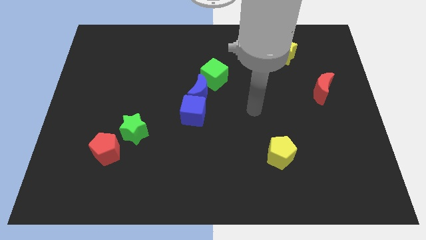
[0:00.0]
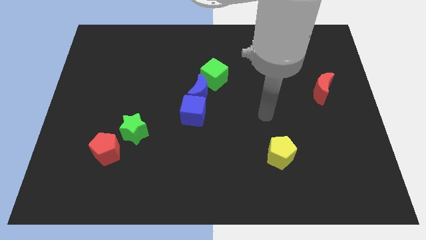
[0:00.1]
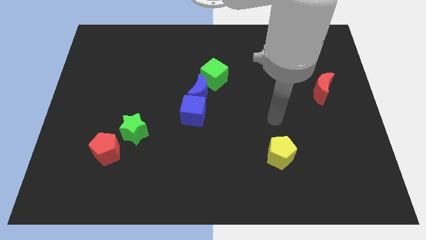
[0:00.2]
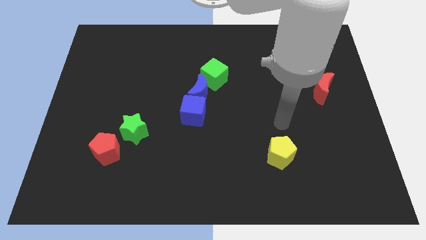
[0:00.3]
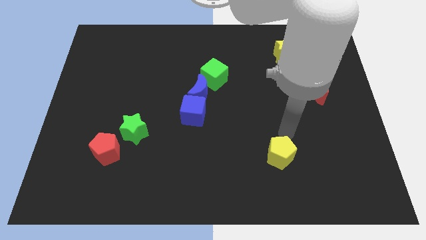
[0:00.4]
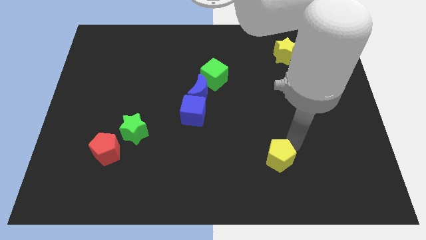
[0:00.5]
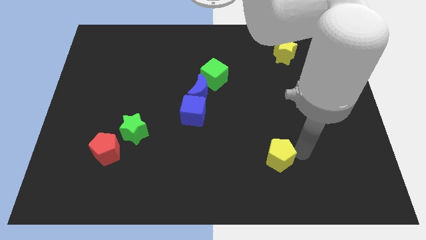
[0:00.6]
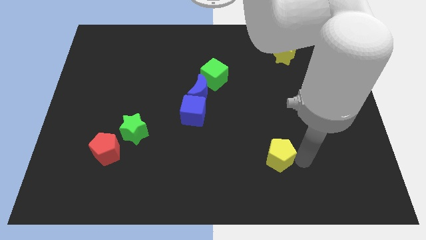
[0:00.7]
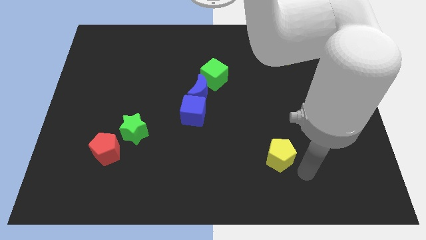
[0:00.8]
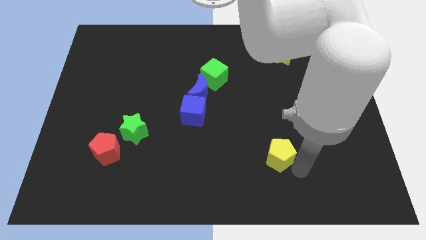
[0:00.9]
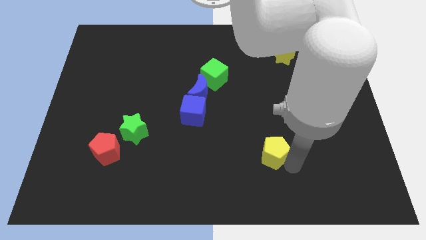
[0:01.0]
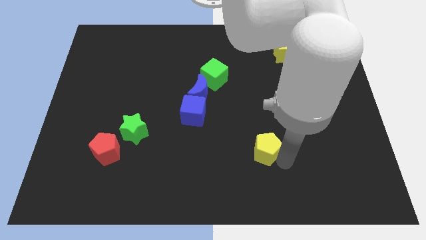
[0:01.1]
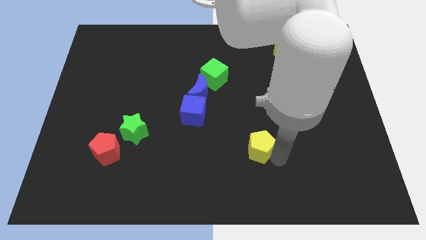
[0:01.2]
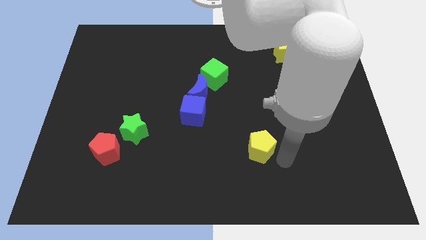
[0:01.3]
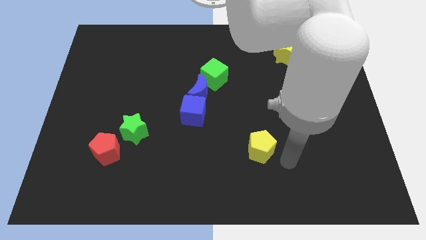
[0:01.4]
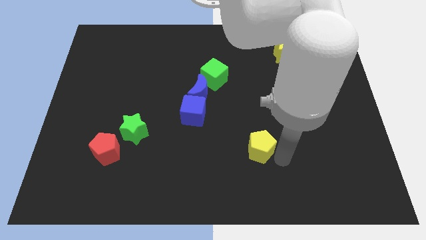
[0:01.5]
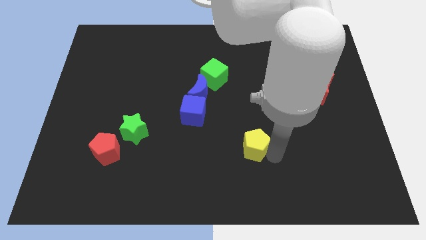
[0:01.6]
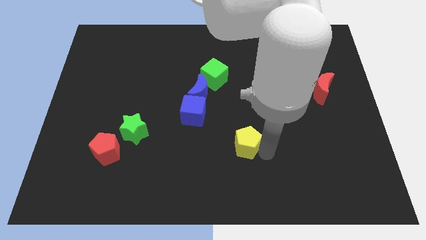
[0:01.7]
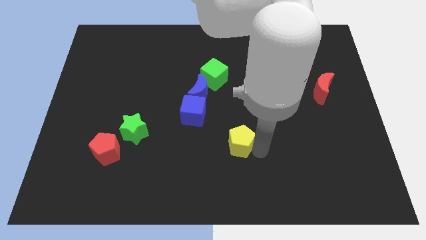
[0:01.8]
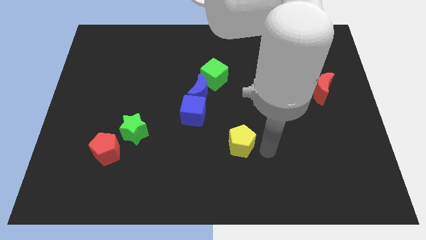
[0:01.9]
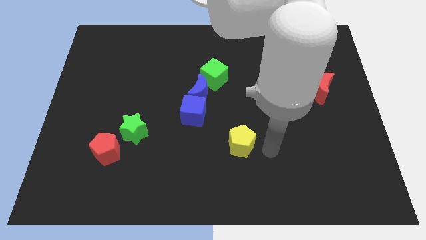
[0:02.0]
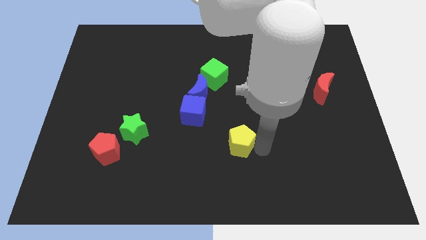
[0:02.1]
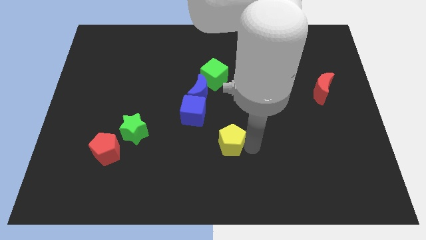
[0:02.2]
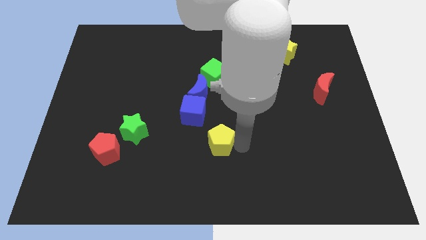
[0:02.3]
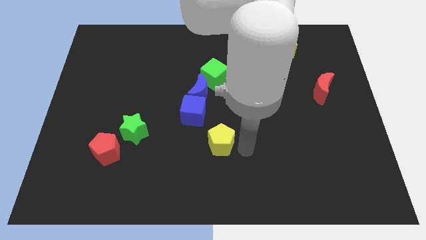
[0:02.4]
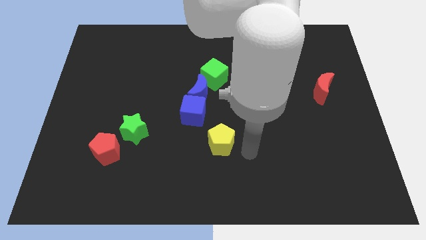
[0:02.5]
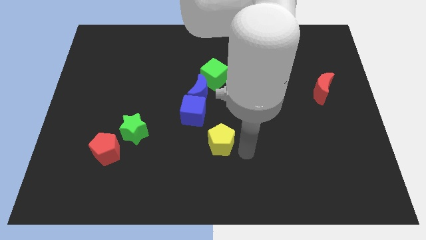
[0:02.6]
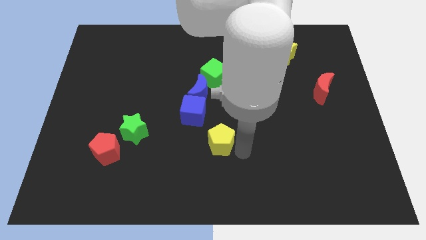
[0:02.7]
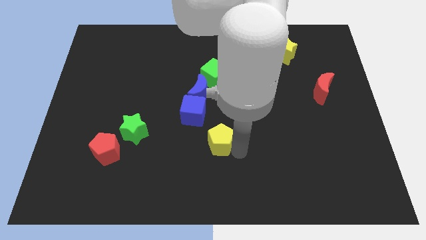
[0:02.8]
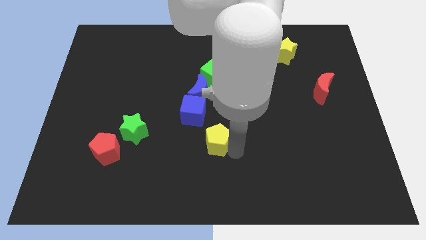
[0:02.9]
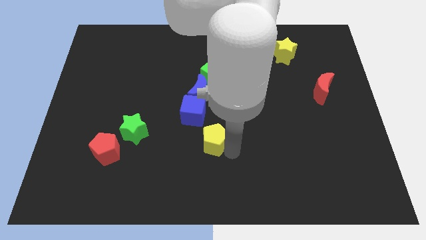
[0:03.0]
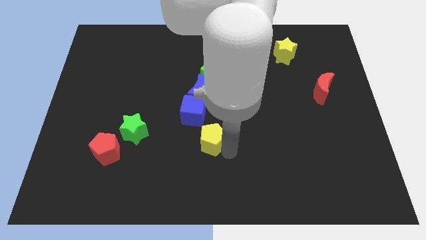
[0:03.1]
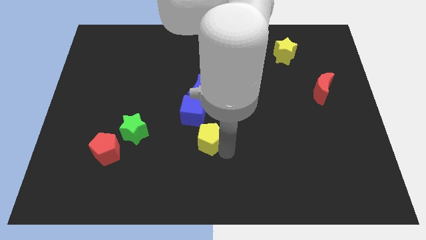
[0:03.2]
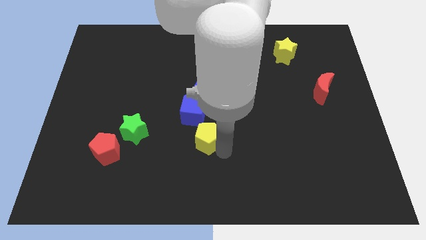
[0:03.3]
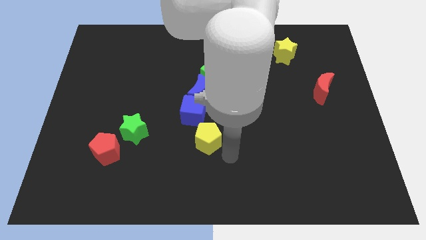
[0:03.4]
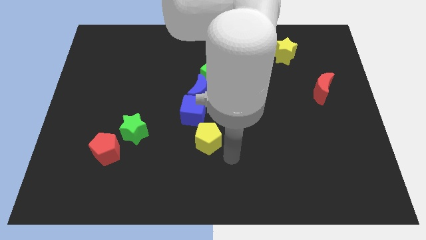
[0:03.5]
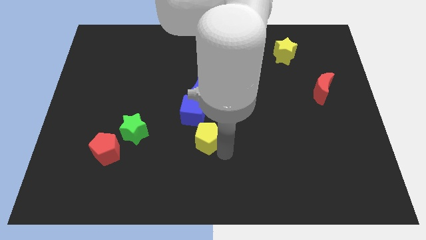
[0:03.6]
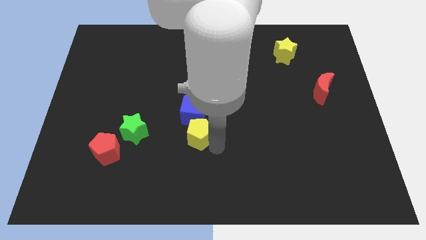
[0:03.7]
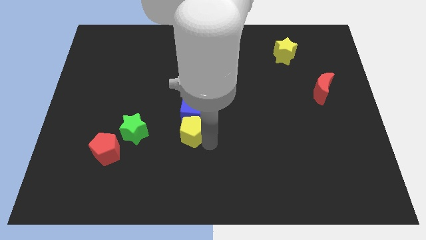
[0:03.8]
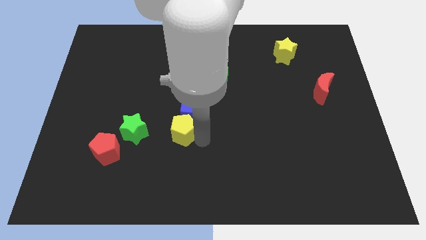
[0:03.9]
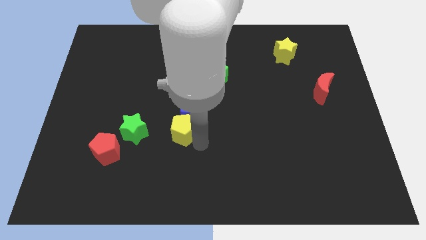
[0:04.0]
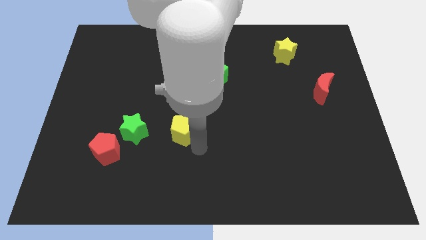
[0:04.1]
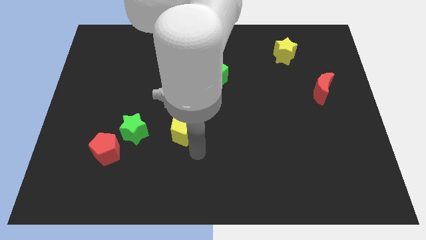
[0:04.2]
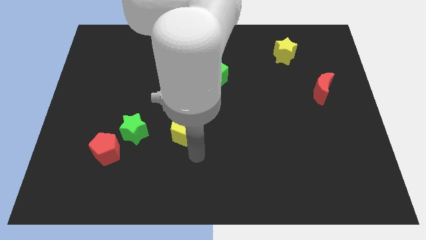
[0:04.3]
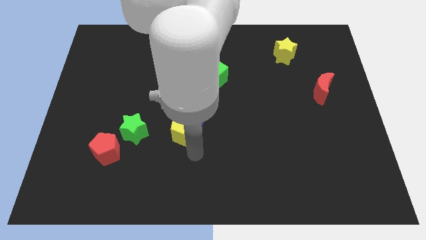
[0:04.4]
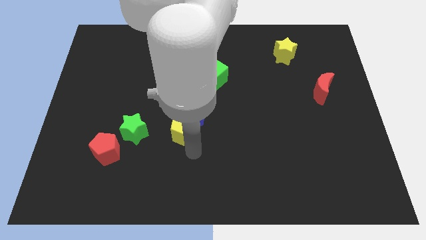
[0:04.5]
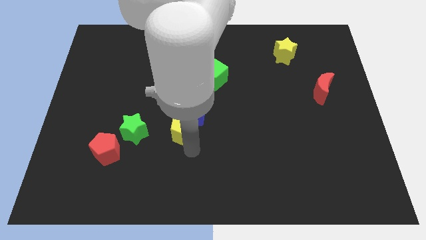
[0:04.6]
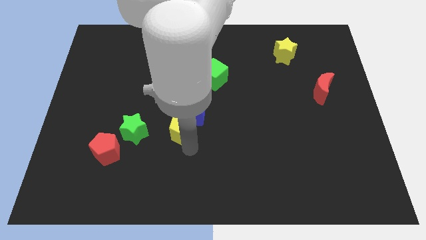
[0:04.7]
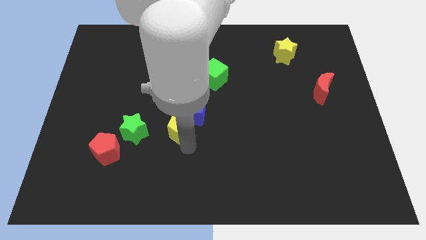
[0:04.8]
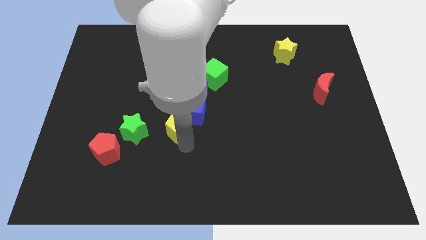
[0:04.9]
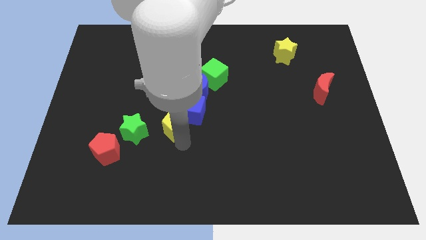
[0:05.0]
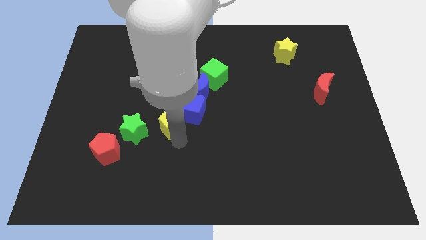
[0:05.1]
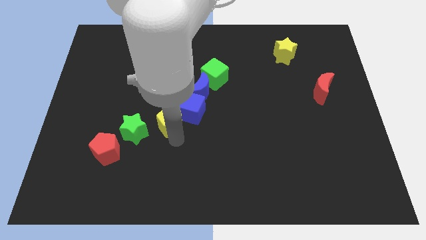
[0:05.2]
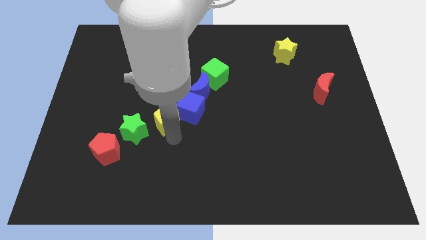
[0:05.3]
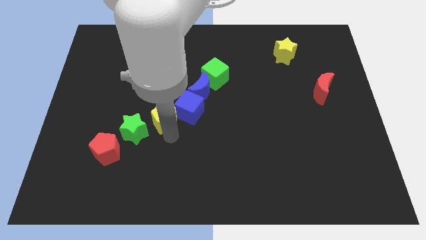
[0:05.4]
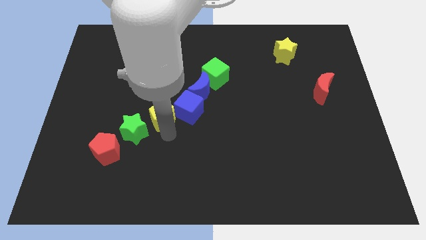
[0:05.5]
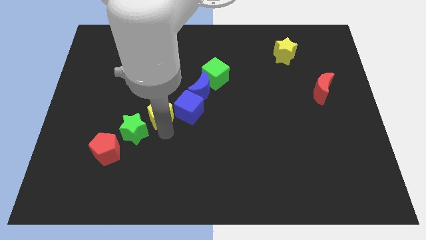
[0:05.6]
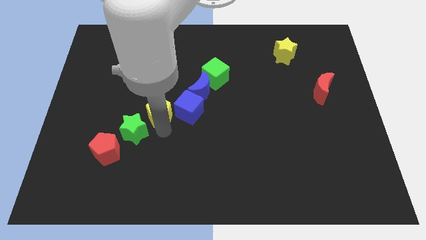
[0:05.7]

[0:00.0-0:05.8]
push the yellow pentagon upwards and then left

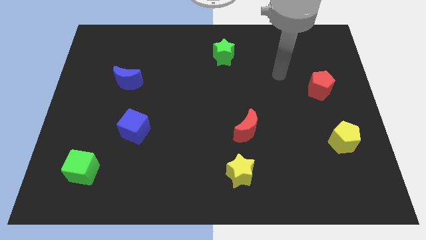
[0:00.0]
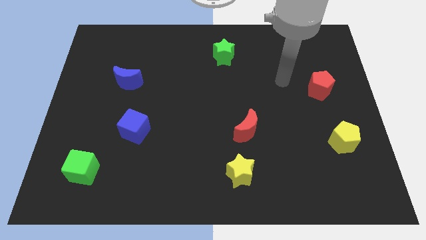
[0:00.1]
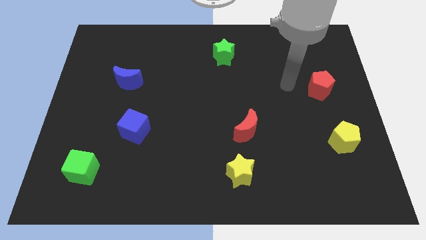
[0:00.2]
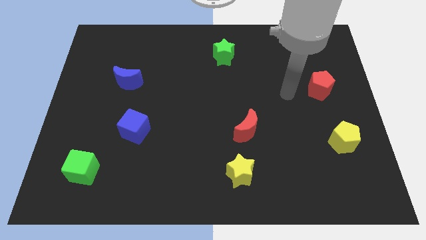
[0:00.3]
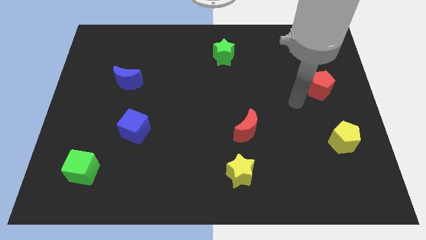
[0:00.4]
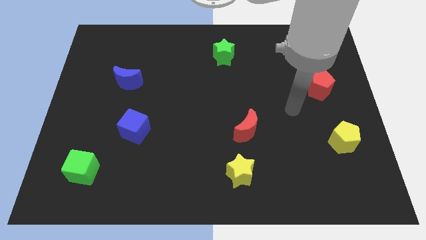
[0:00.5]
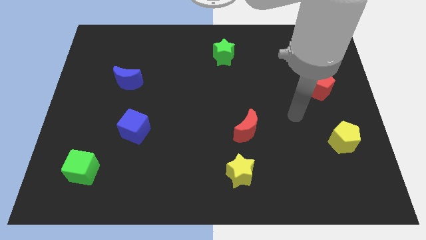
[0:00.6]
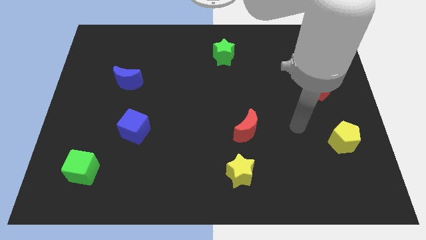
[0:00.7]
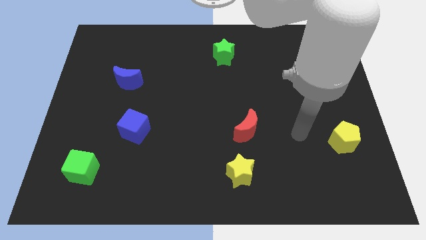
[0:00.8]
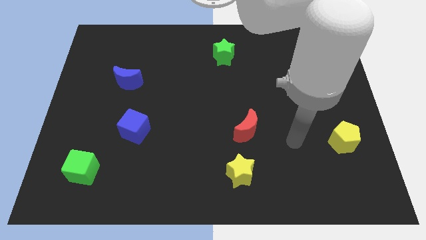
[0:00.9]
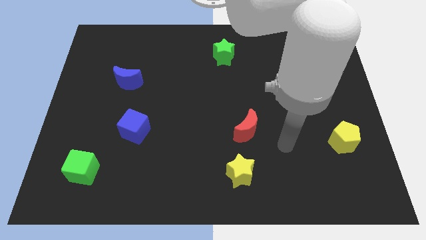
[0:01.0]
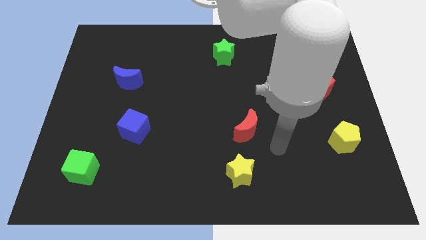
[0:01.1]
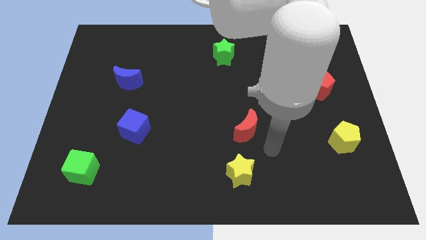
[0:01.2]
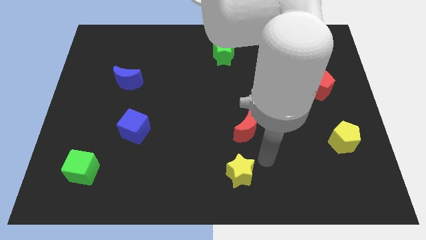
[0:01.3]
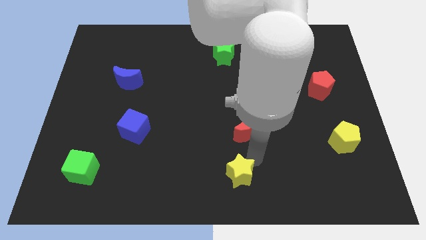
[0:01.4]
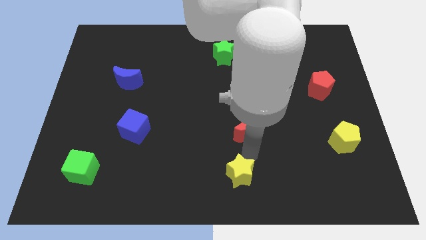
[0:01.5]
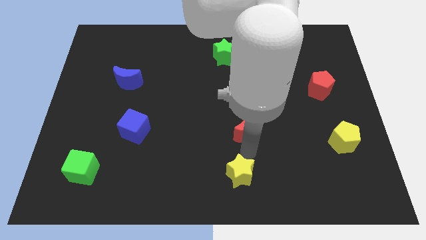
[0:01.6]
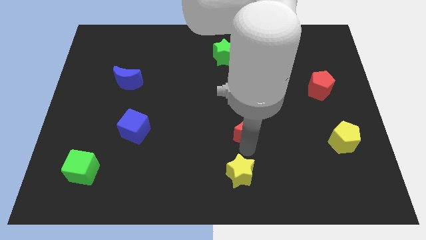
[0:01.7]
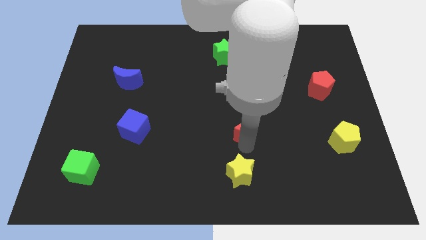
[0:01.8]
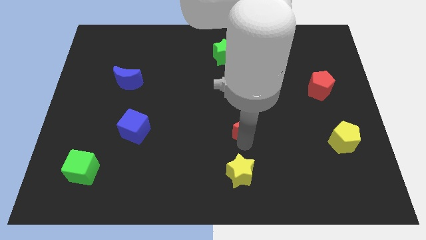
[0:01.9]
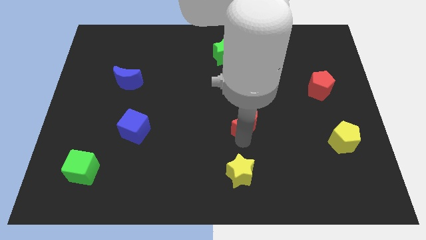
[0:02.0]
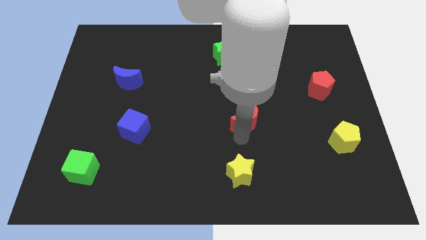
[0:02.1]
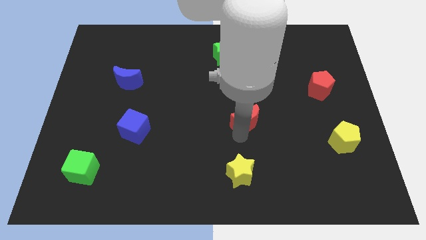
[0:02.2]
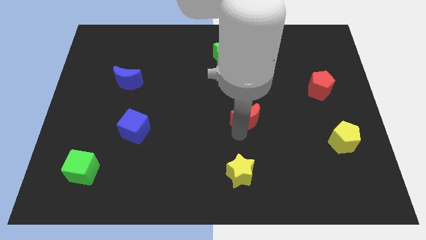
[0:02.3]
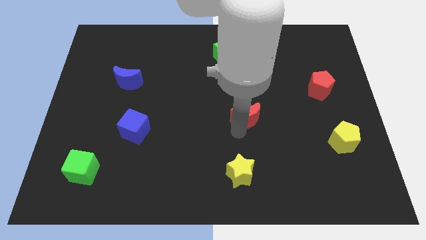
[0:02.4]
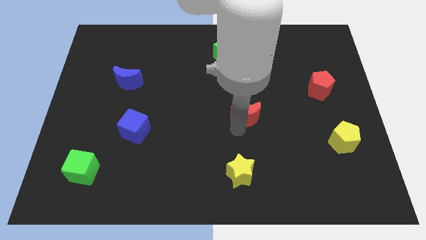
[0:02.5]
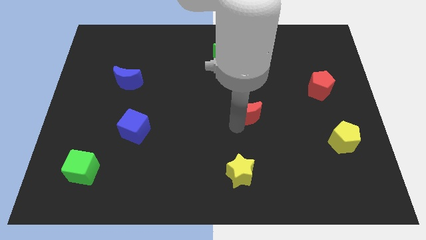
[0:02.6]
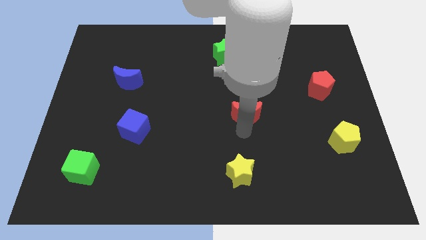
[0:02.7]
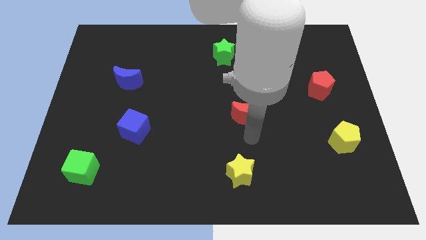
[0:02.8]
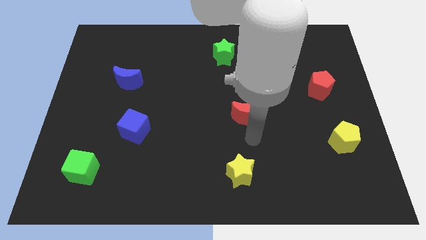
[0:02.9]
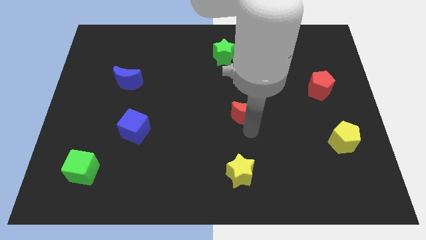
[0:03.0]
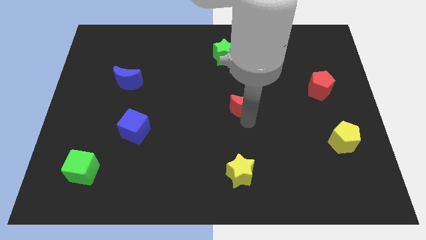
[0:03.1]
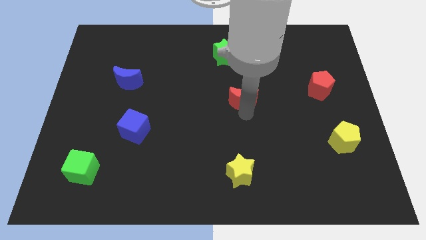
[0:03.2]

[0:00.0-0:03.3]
slightly push the red moon up
